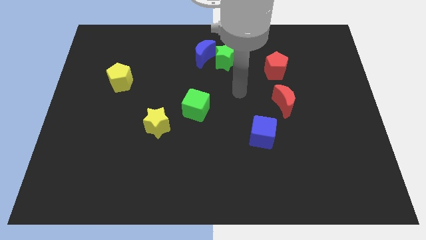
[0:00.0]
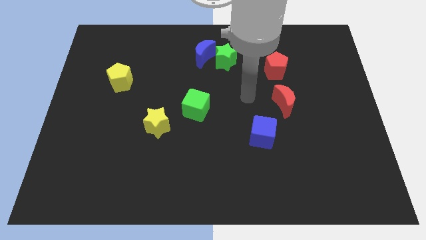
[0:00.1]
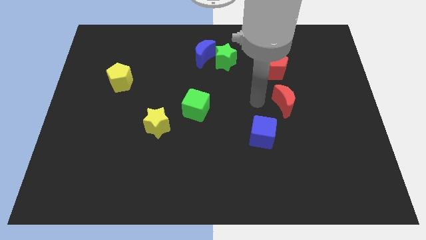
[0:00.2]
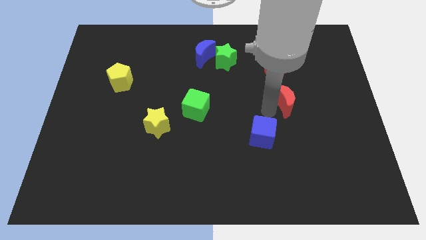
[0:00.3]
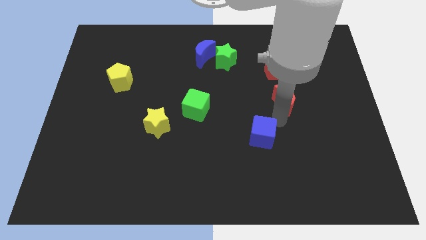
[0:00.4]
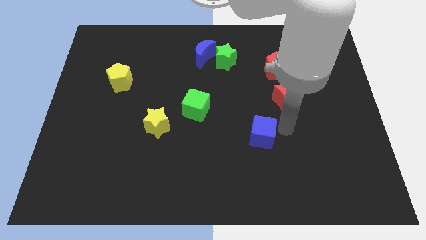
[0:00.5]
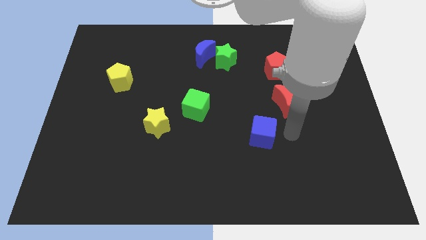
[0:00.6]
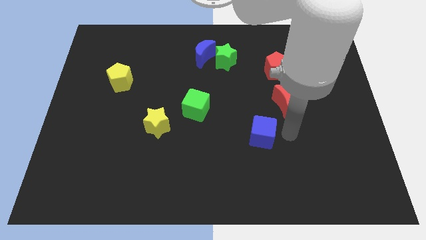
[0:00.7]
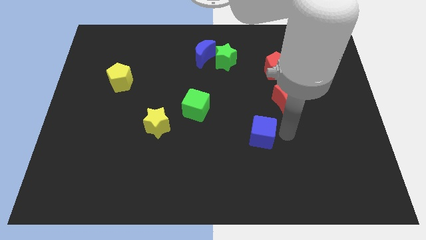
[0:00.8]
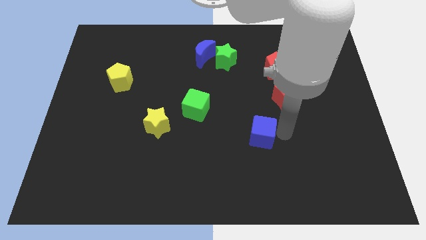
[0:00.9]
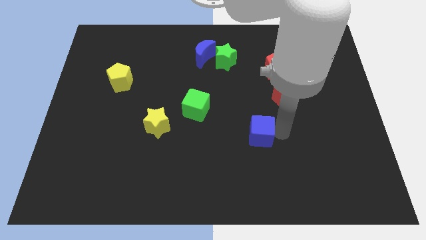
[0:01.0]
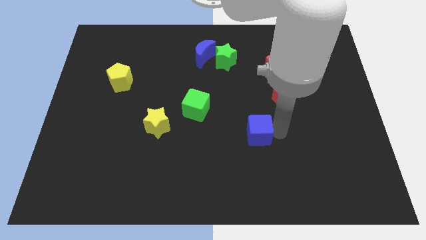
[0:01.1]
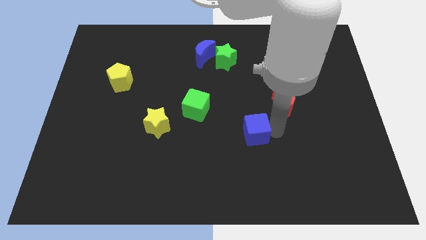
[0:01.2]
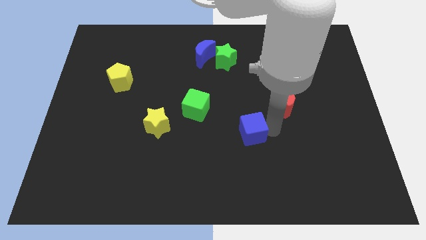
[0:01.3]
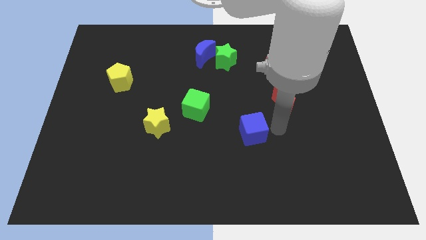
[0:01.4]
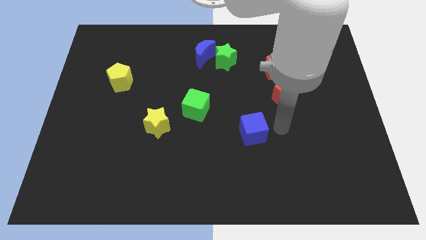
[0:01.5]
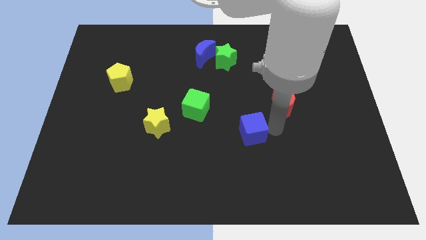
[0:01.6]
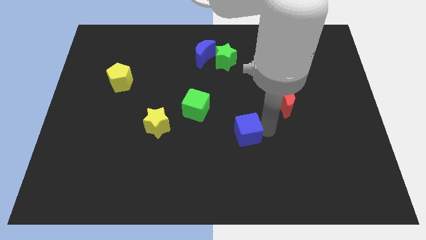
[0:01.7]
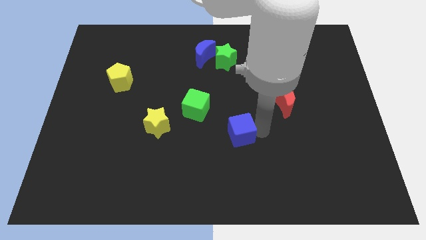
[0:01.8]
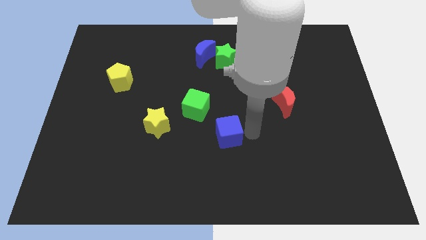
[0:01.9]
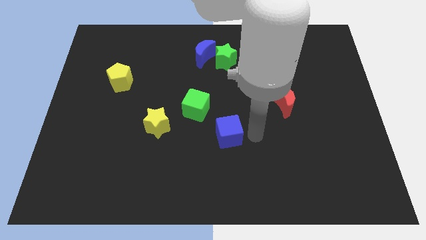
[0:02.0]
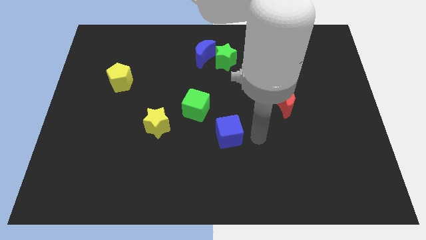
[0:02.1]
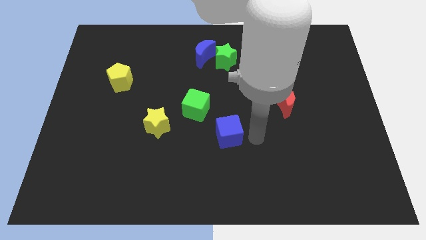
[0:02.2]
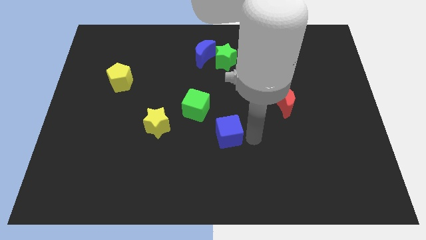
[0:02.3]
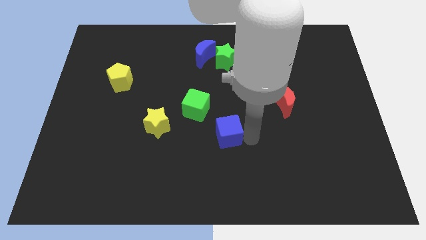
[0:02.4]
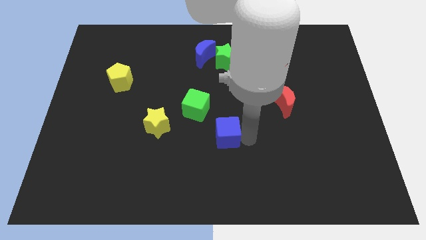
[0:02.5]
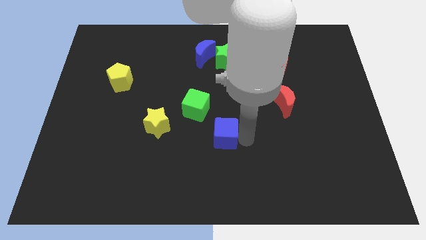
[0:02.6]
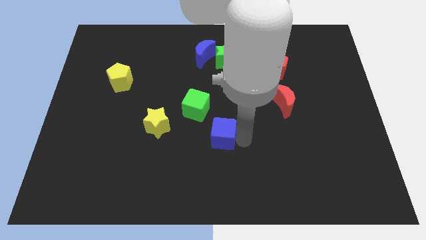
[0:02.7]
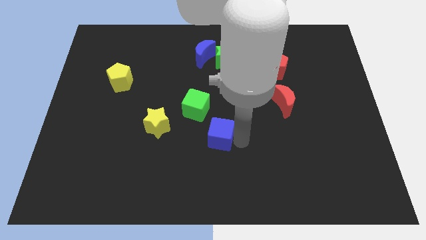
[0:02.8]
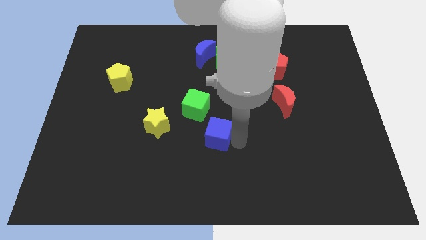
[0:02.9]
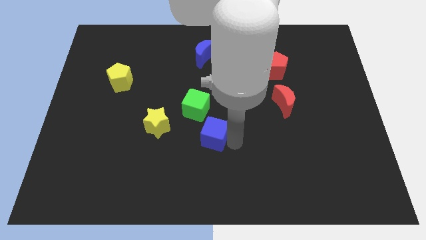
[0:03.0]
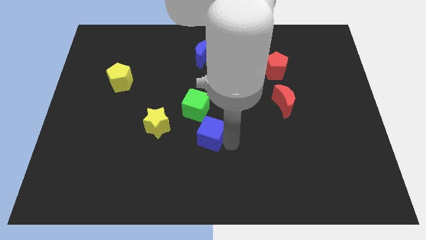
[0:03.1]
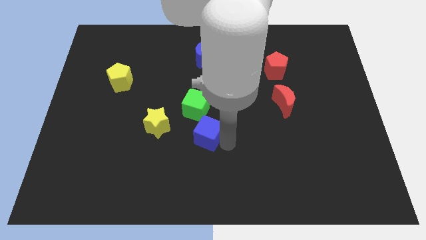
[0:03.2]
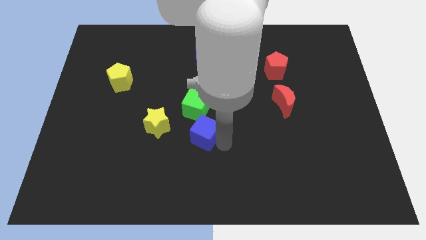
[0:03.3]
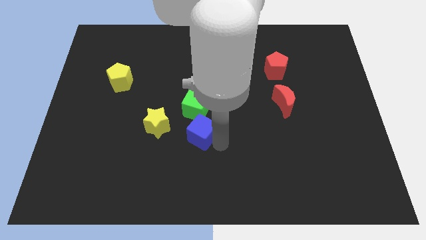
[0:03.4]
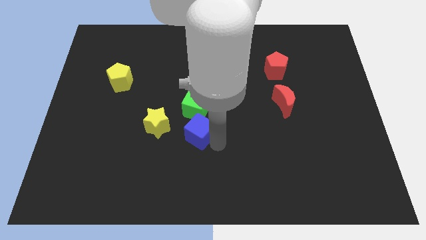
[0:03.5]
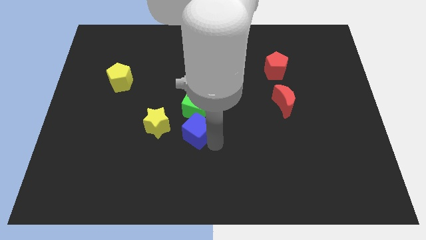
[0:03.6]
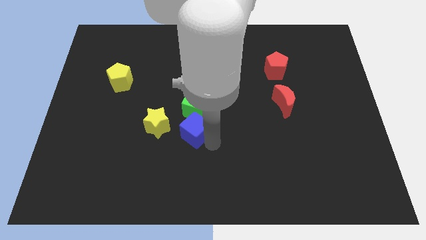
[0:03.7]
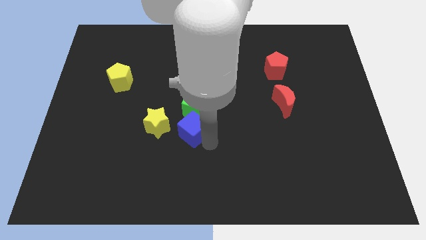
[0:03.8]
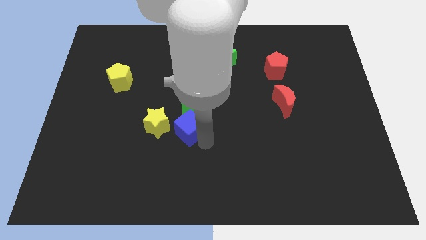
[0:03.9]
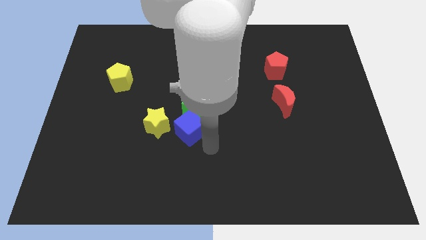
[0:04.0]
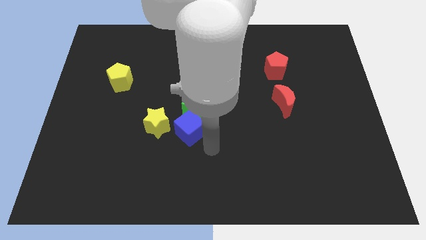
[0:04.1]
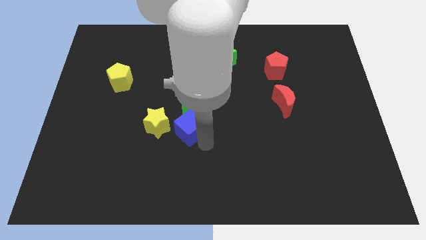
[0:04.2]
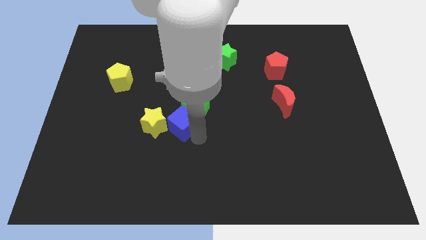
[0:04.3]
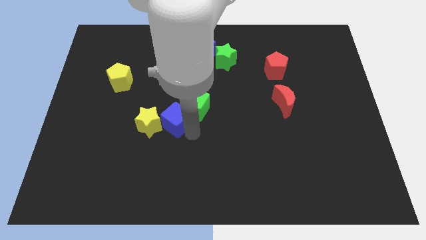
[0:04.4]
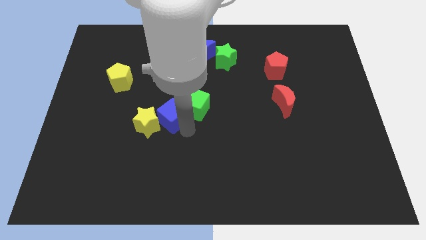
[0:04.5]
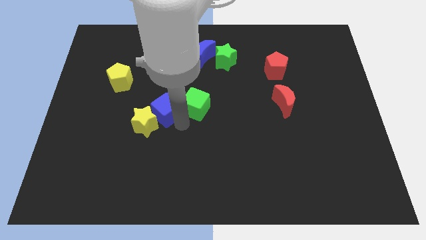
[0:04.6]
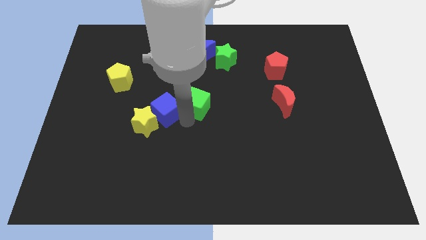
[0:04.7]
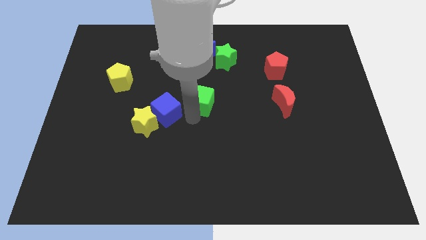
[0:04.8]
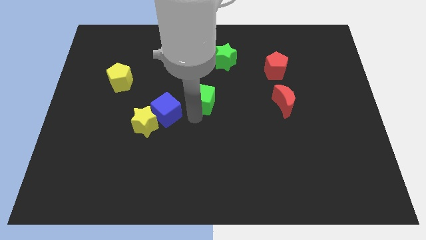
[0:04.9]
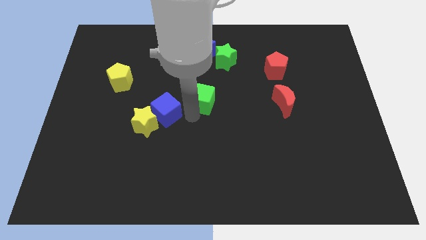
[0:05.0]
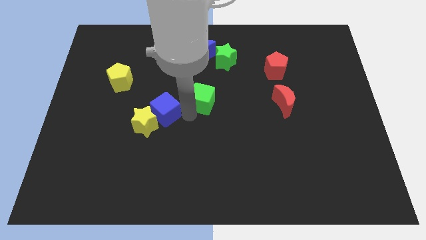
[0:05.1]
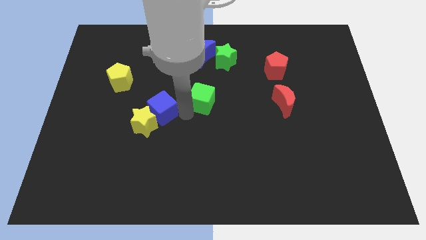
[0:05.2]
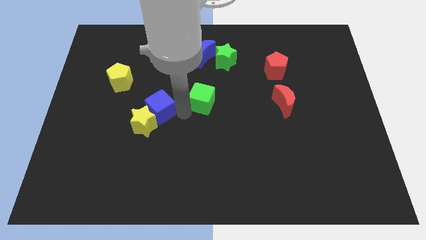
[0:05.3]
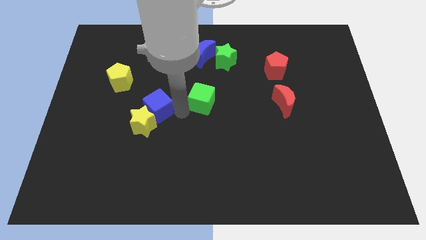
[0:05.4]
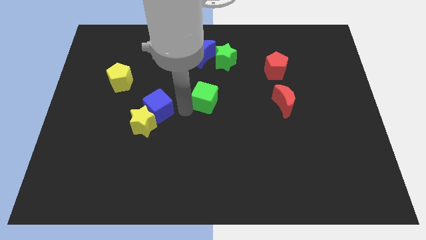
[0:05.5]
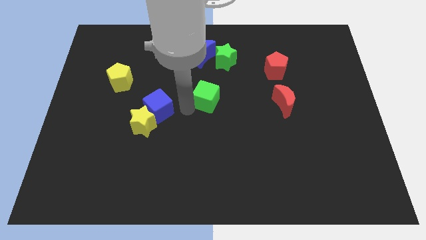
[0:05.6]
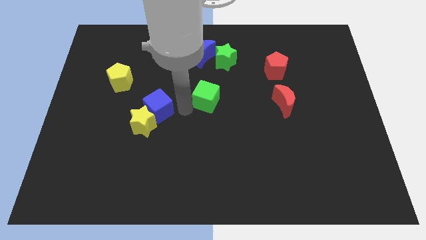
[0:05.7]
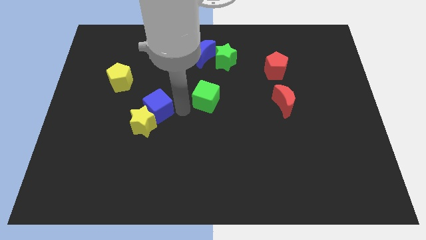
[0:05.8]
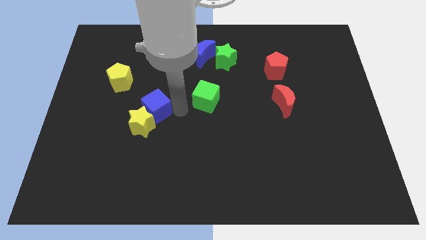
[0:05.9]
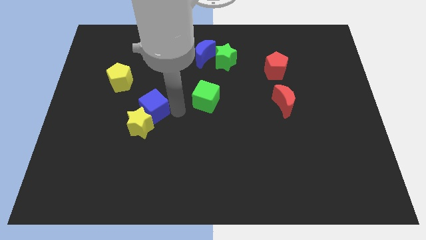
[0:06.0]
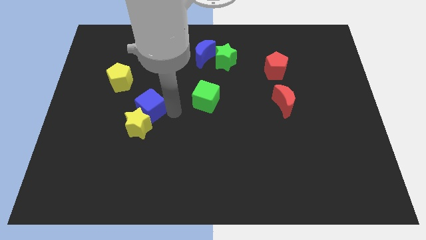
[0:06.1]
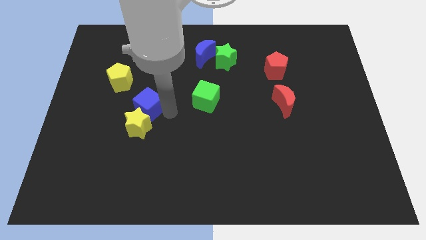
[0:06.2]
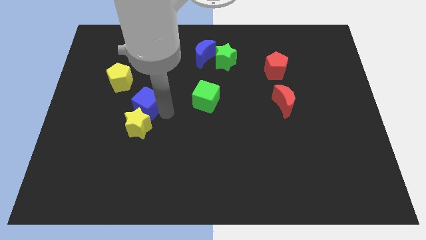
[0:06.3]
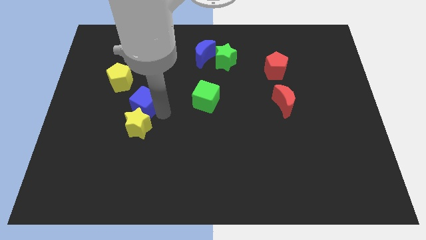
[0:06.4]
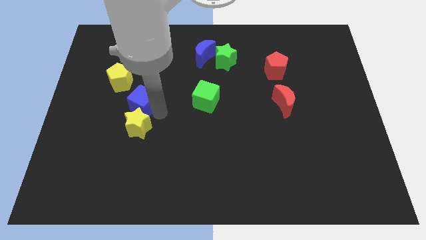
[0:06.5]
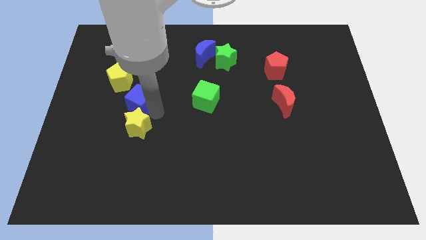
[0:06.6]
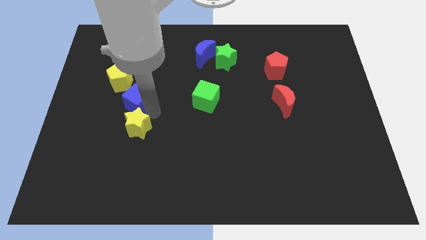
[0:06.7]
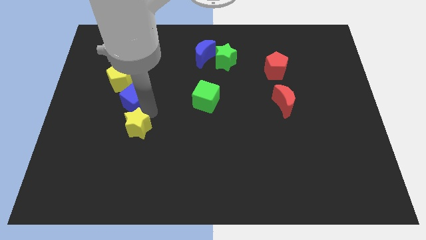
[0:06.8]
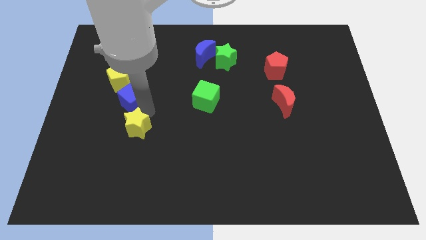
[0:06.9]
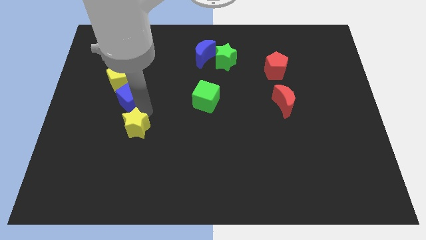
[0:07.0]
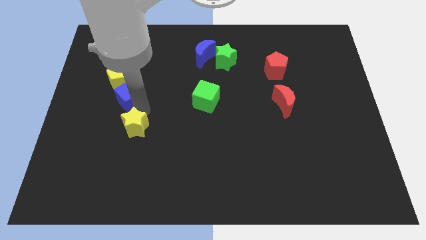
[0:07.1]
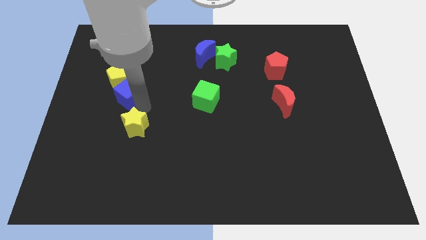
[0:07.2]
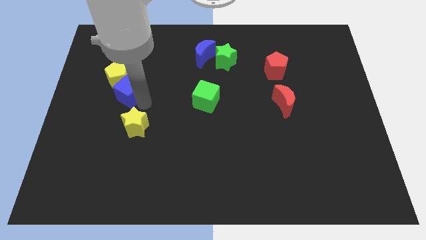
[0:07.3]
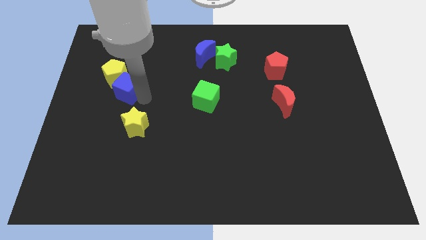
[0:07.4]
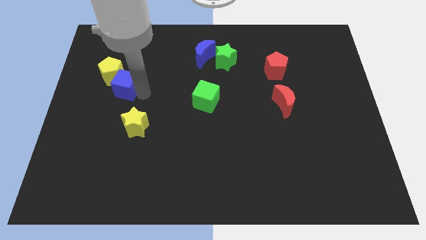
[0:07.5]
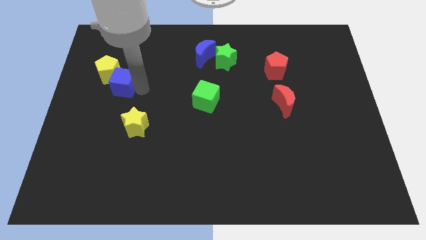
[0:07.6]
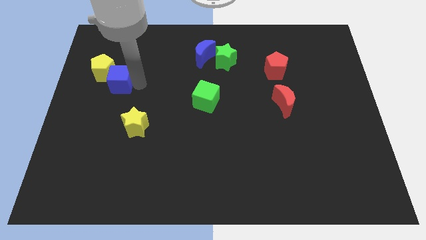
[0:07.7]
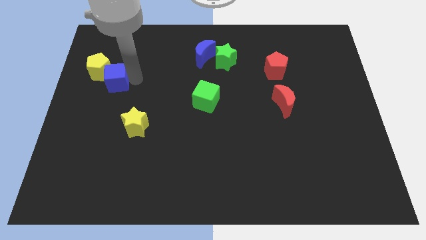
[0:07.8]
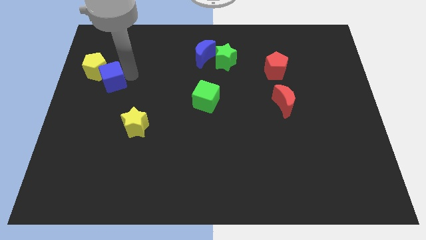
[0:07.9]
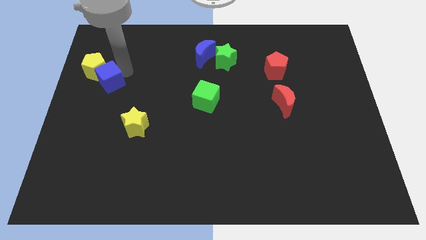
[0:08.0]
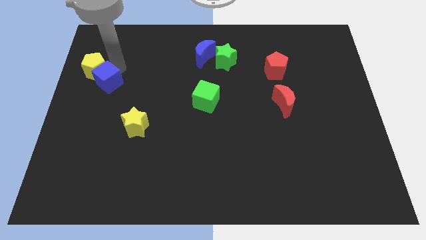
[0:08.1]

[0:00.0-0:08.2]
move the blue cube to the left side of the board
